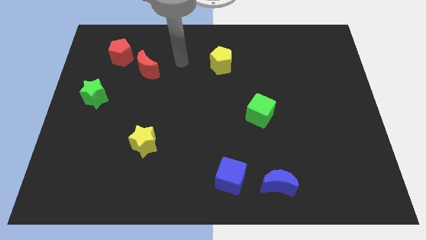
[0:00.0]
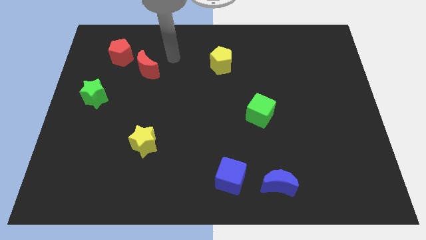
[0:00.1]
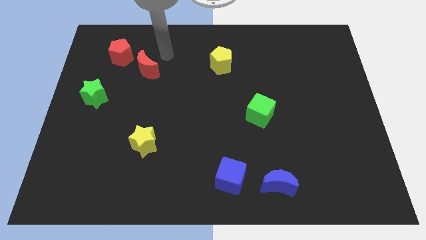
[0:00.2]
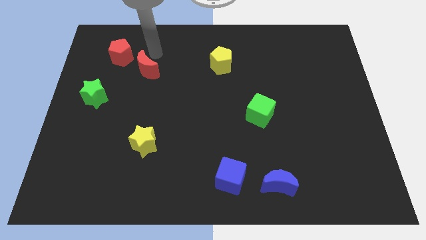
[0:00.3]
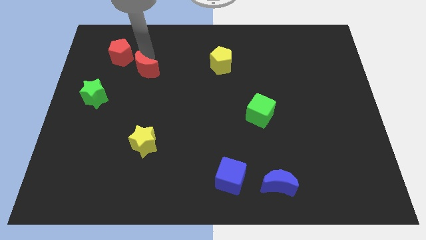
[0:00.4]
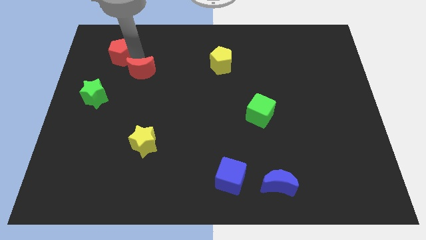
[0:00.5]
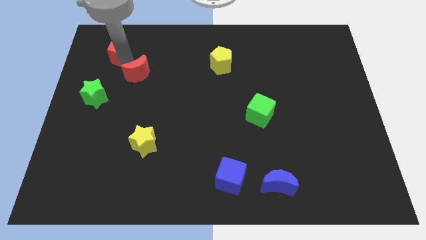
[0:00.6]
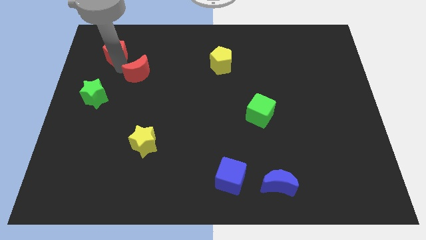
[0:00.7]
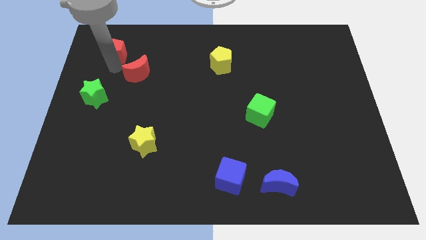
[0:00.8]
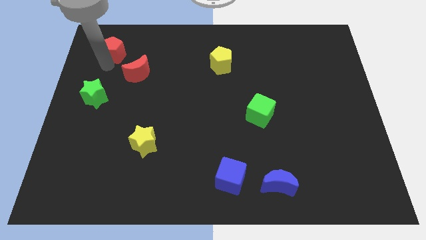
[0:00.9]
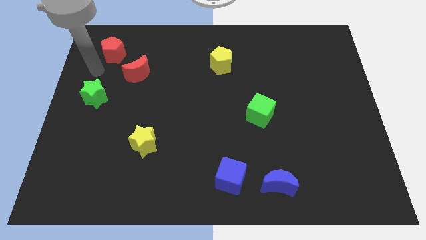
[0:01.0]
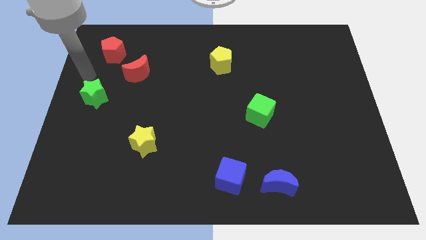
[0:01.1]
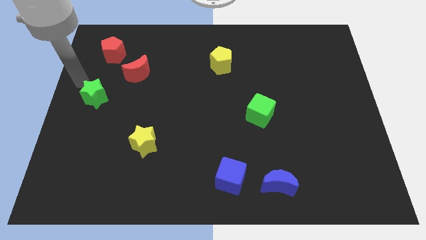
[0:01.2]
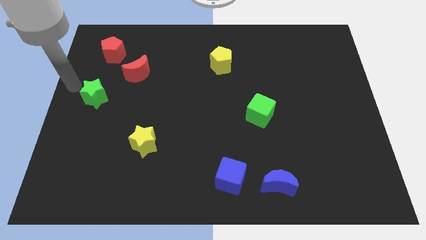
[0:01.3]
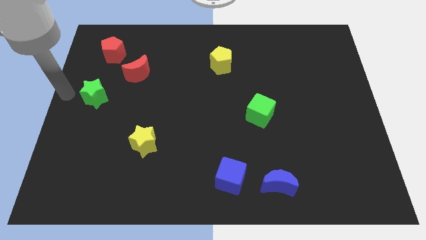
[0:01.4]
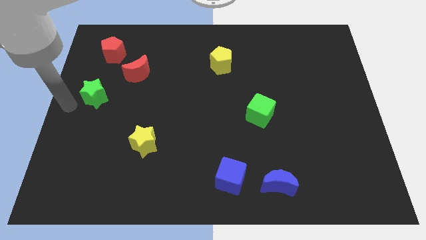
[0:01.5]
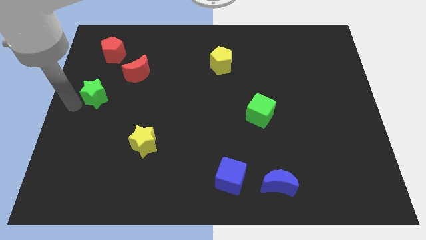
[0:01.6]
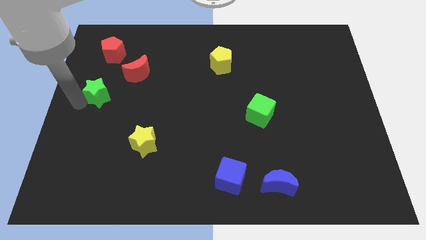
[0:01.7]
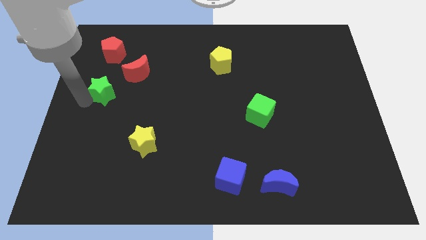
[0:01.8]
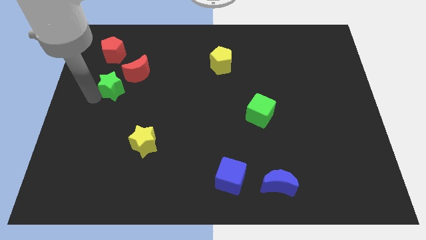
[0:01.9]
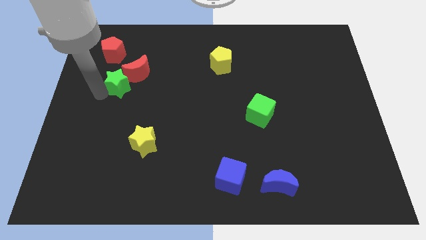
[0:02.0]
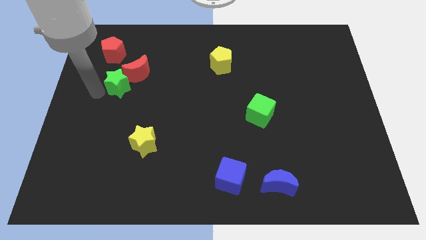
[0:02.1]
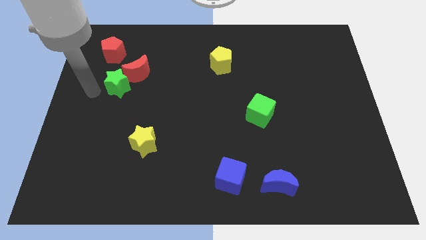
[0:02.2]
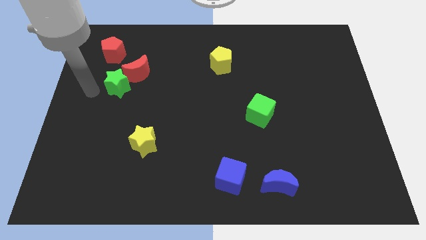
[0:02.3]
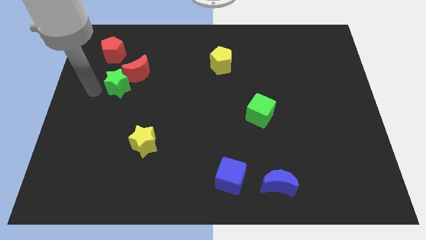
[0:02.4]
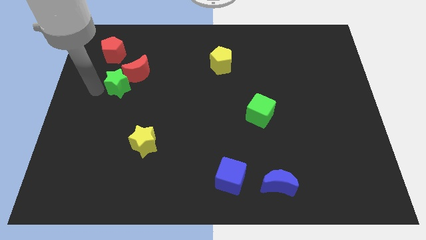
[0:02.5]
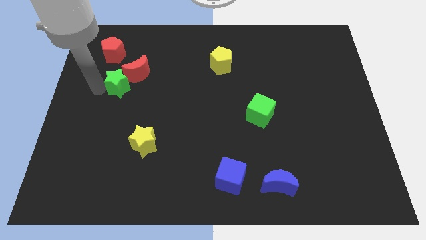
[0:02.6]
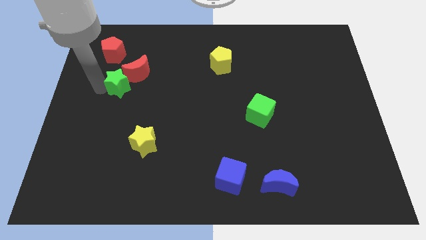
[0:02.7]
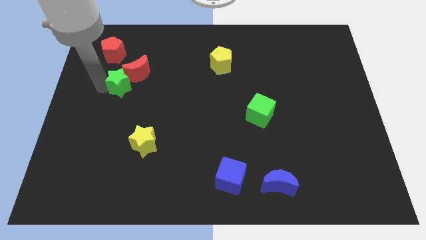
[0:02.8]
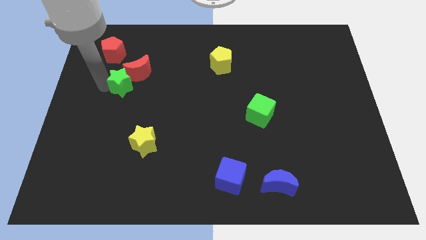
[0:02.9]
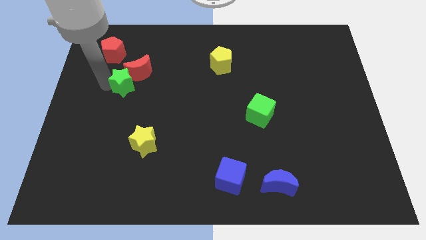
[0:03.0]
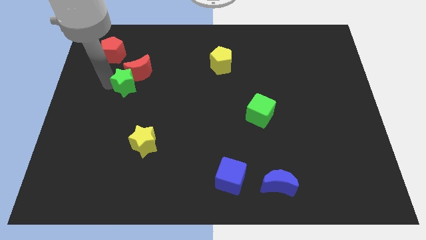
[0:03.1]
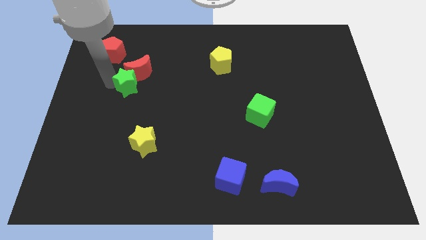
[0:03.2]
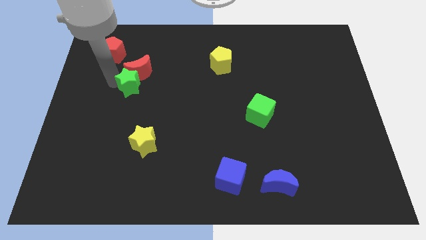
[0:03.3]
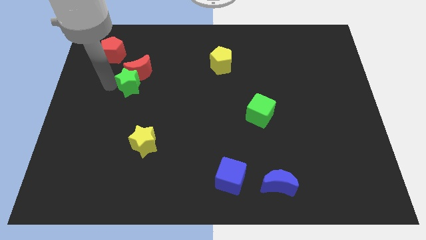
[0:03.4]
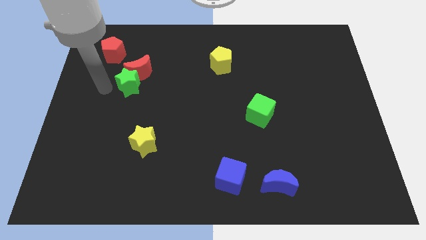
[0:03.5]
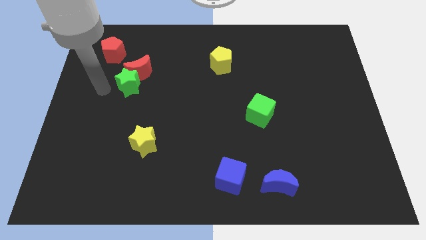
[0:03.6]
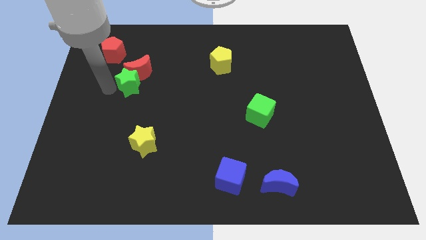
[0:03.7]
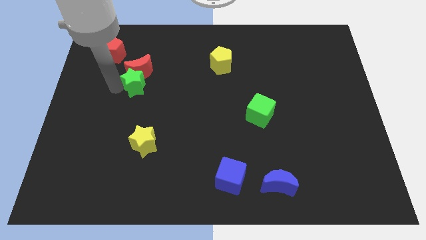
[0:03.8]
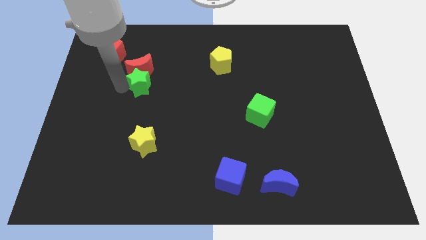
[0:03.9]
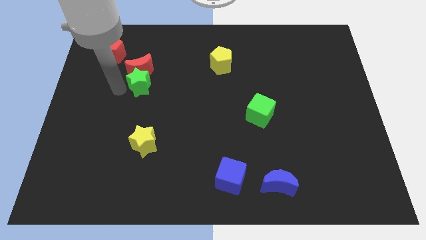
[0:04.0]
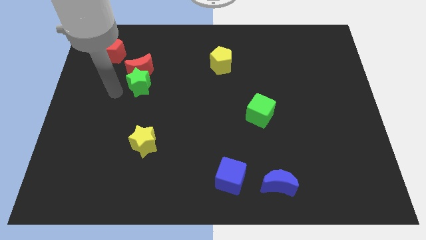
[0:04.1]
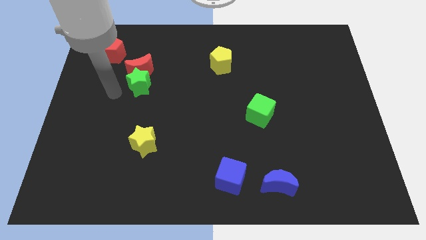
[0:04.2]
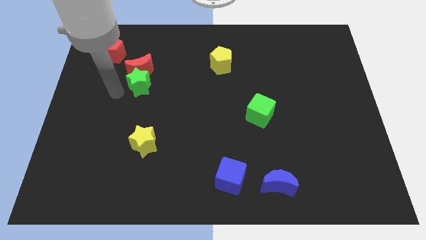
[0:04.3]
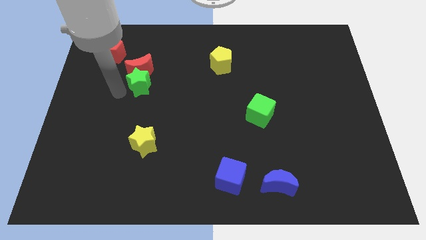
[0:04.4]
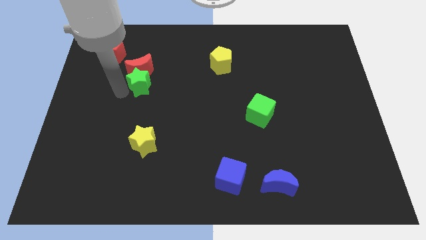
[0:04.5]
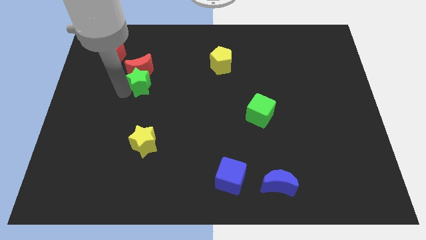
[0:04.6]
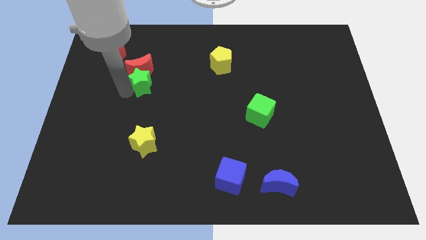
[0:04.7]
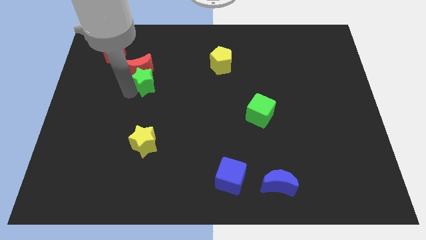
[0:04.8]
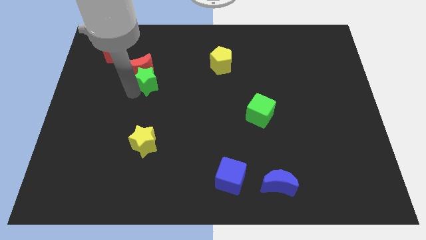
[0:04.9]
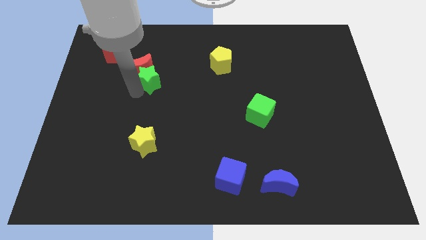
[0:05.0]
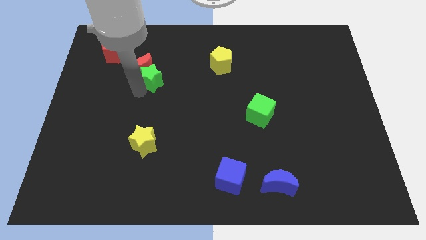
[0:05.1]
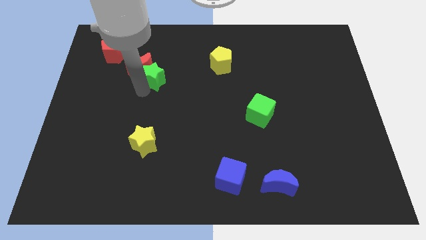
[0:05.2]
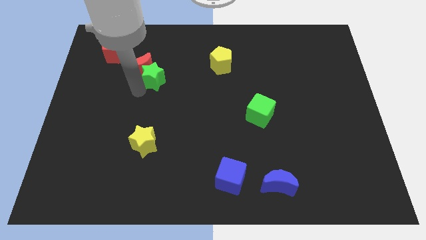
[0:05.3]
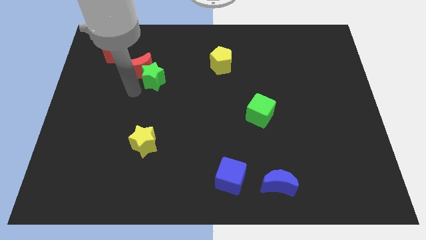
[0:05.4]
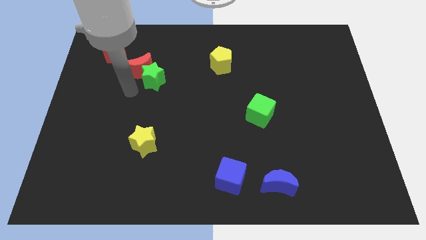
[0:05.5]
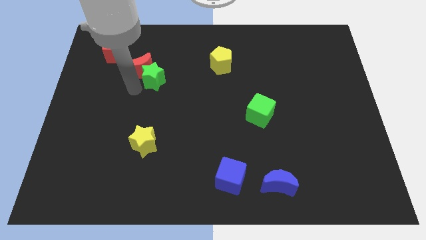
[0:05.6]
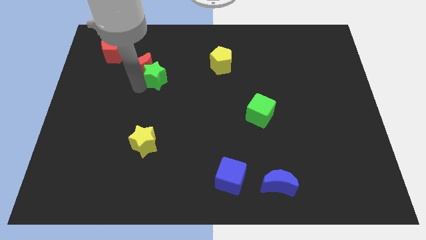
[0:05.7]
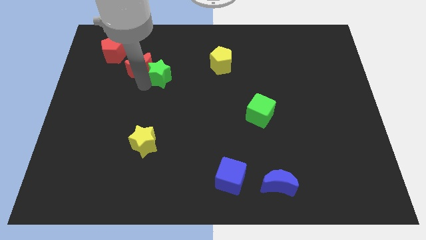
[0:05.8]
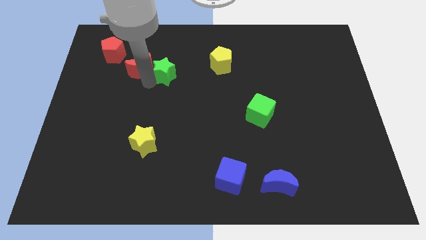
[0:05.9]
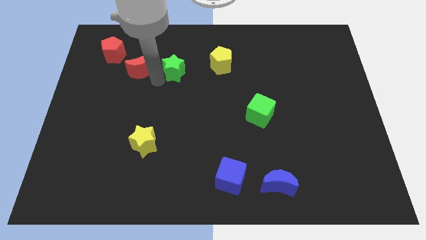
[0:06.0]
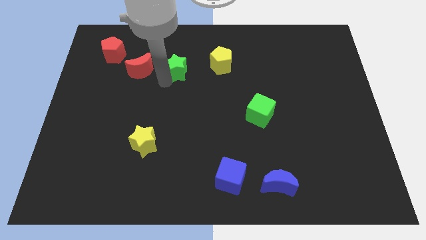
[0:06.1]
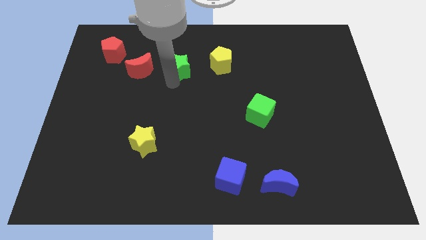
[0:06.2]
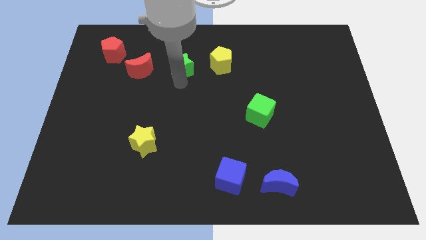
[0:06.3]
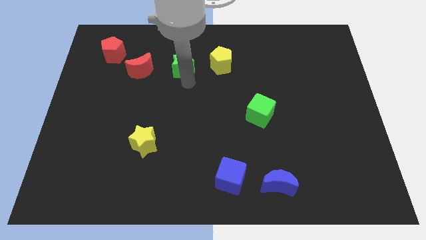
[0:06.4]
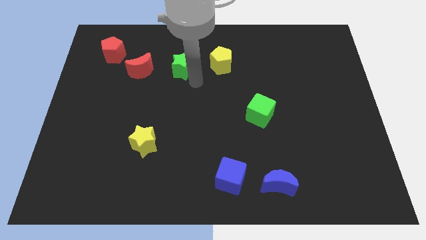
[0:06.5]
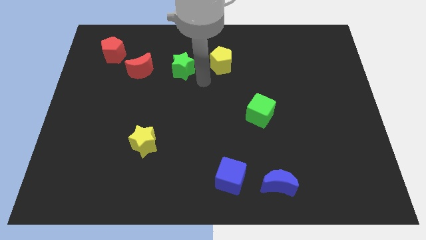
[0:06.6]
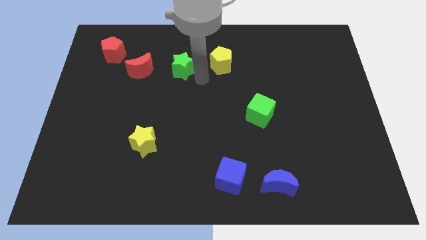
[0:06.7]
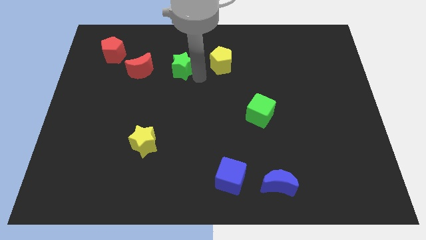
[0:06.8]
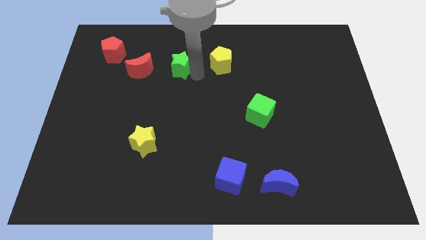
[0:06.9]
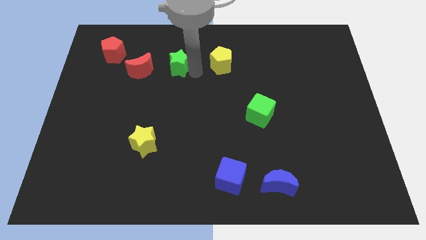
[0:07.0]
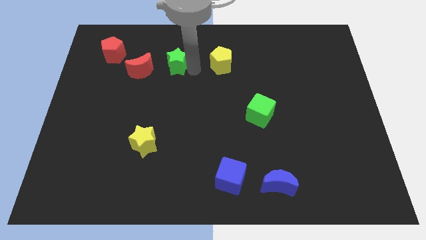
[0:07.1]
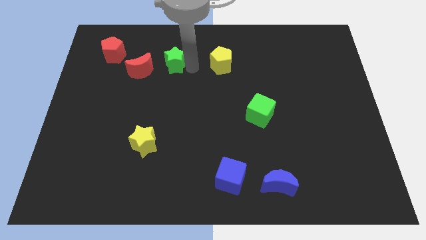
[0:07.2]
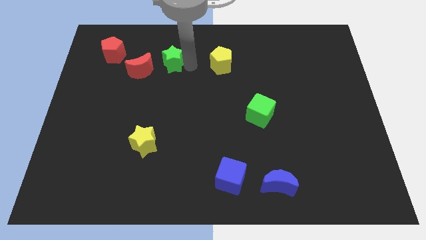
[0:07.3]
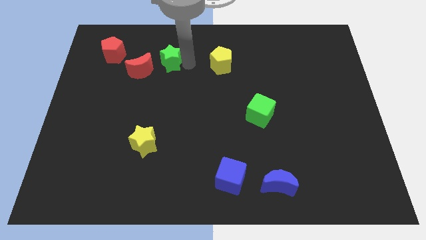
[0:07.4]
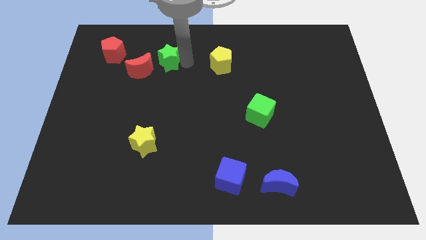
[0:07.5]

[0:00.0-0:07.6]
put the green star just right of the red pentagon
